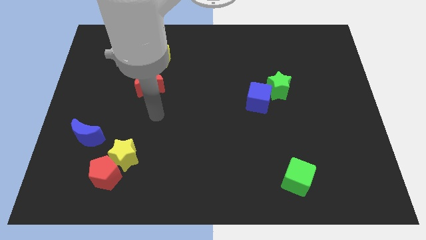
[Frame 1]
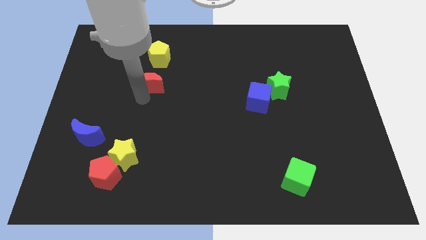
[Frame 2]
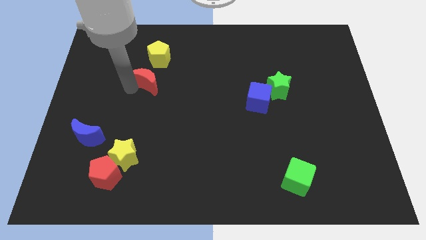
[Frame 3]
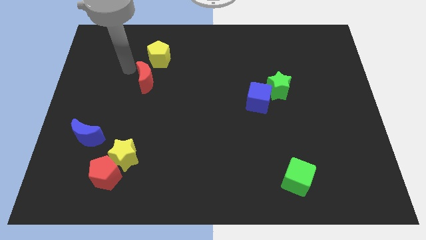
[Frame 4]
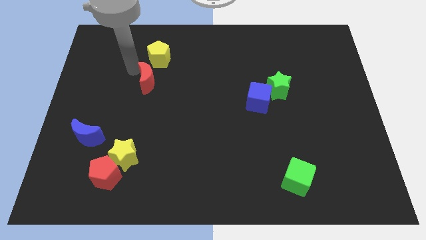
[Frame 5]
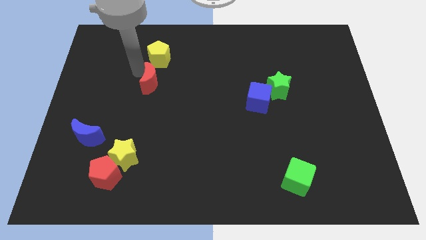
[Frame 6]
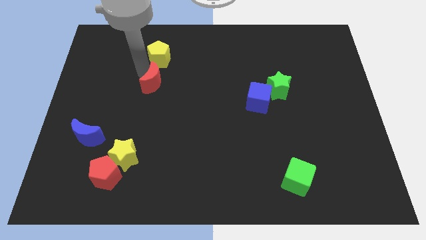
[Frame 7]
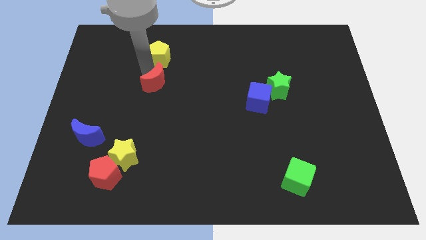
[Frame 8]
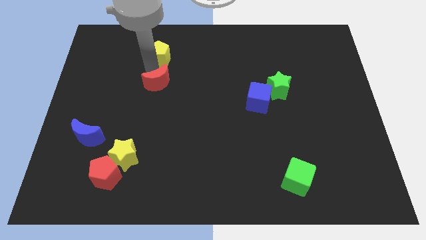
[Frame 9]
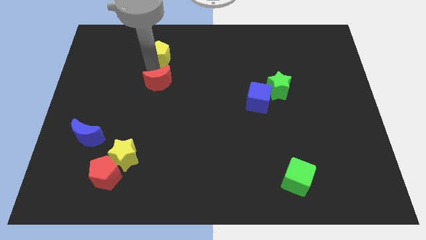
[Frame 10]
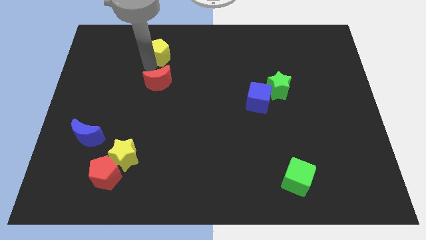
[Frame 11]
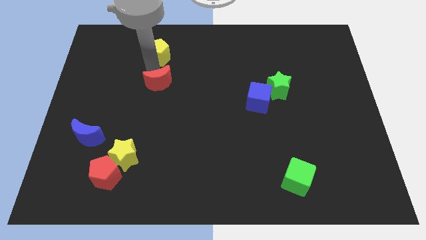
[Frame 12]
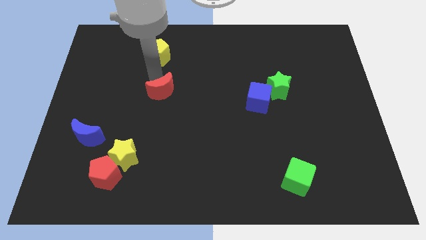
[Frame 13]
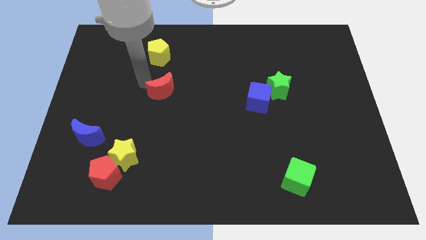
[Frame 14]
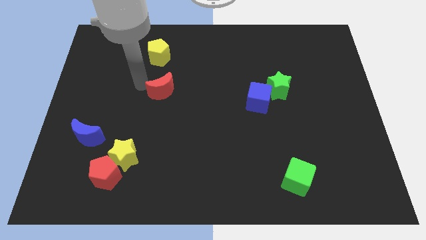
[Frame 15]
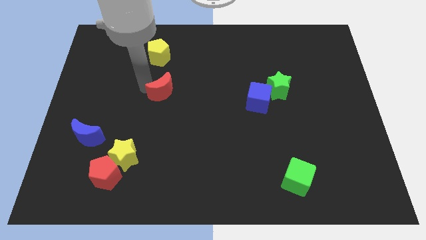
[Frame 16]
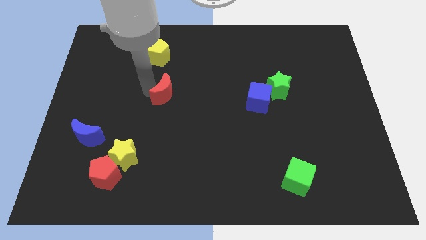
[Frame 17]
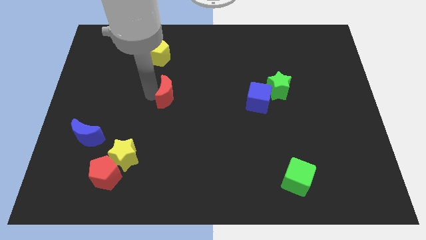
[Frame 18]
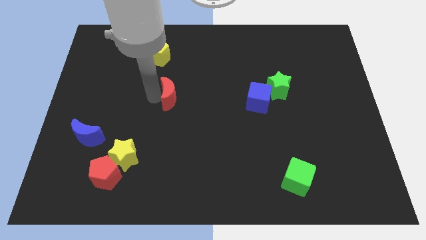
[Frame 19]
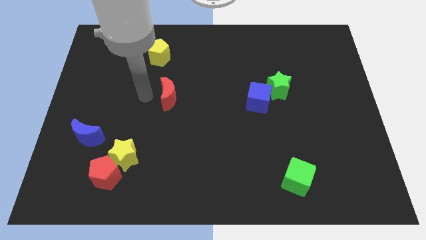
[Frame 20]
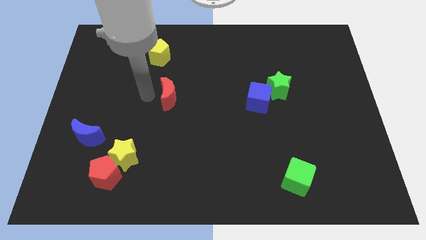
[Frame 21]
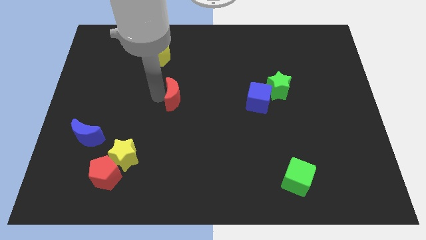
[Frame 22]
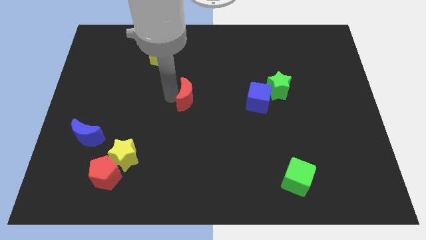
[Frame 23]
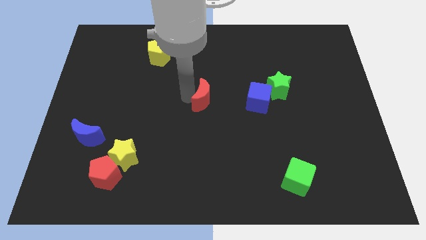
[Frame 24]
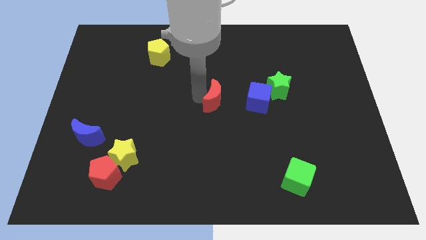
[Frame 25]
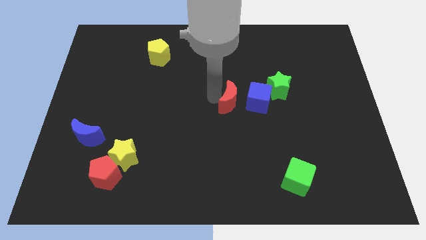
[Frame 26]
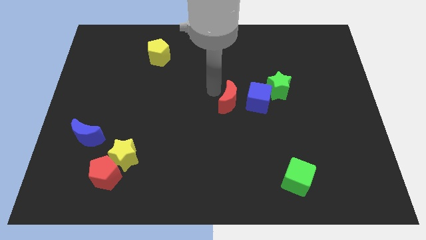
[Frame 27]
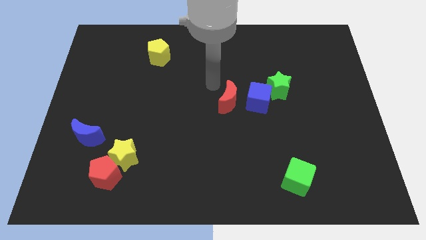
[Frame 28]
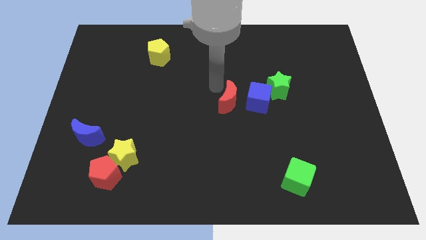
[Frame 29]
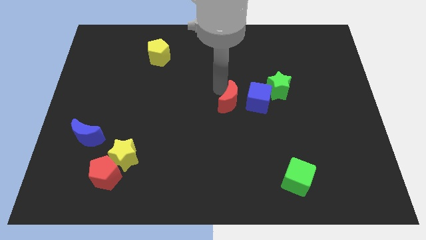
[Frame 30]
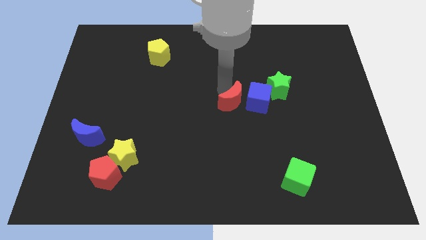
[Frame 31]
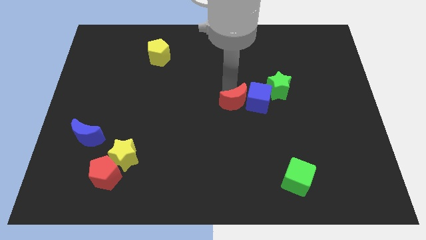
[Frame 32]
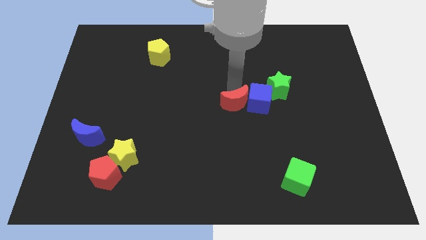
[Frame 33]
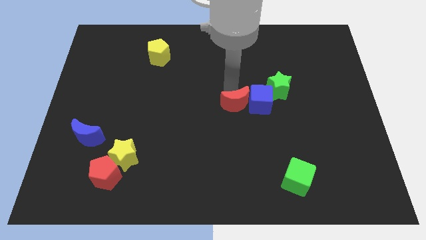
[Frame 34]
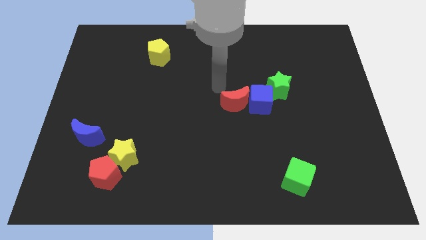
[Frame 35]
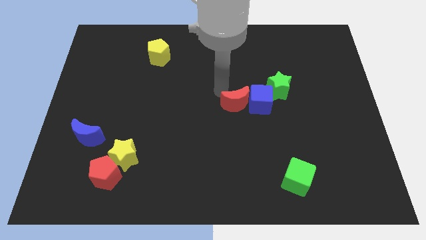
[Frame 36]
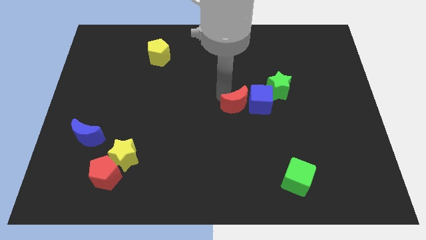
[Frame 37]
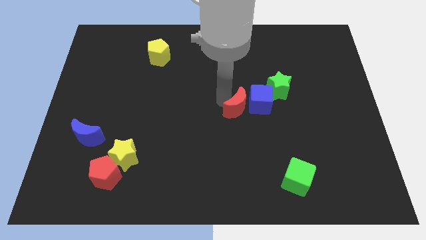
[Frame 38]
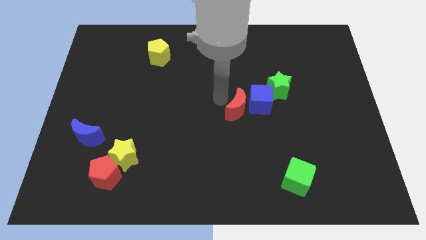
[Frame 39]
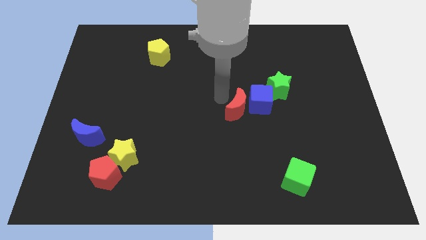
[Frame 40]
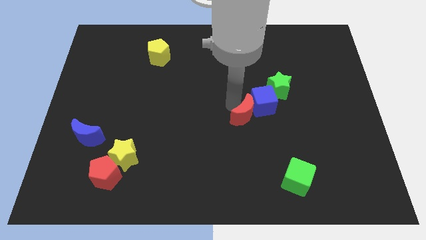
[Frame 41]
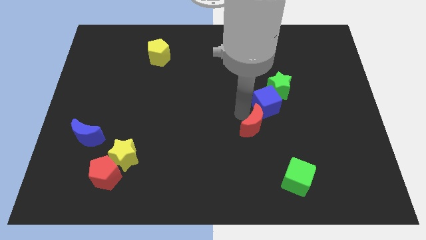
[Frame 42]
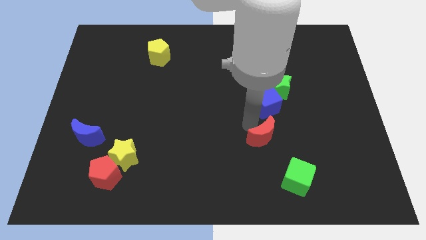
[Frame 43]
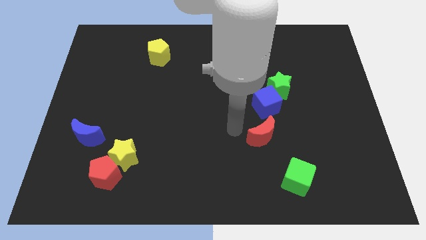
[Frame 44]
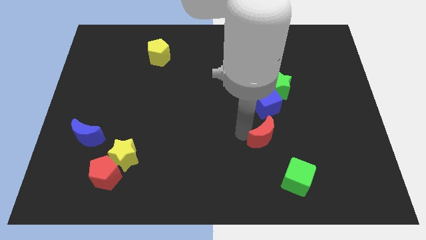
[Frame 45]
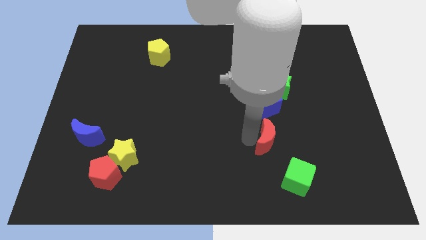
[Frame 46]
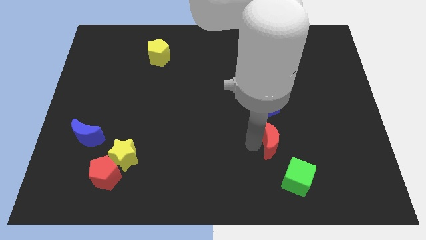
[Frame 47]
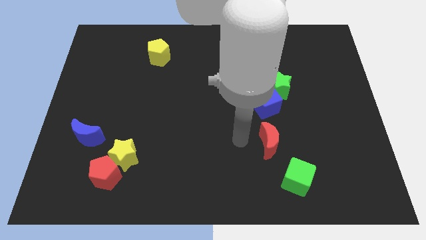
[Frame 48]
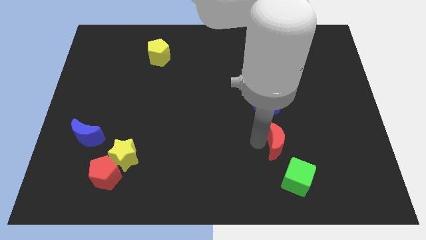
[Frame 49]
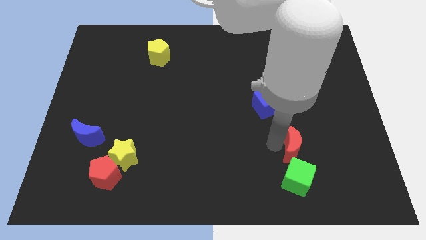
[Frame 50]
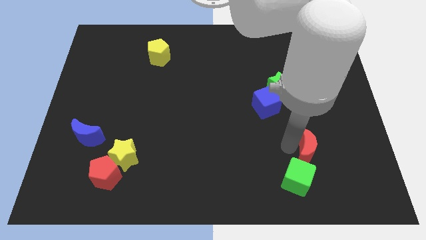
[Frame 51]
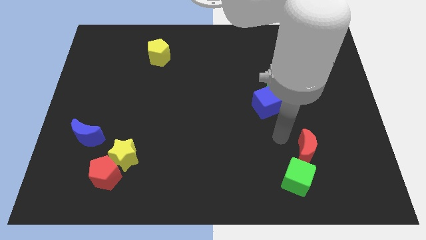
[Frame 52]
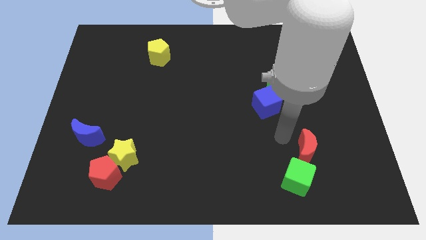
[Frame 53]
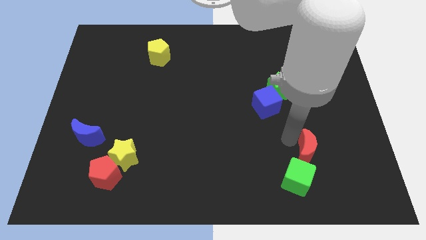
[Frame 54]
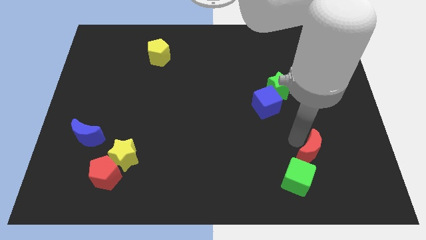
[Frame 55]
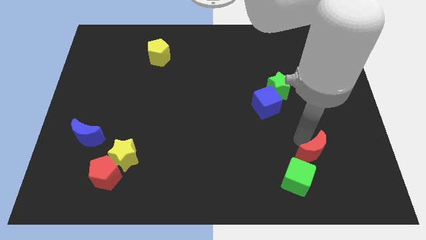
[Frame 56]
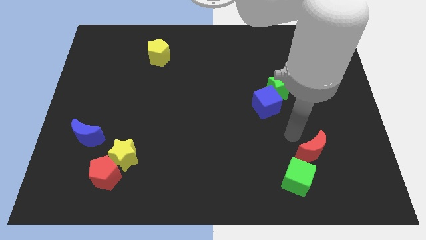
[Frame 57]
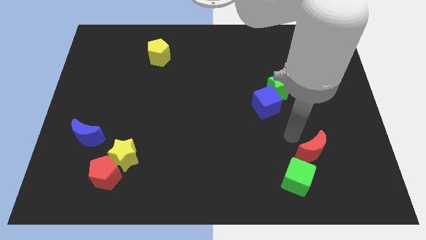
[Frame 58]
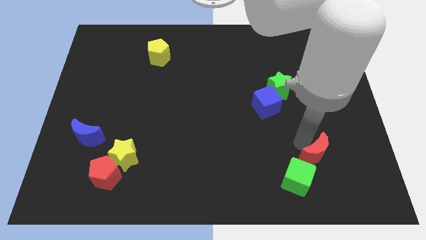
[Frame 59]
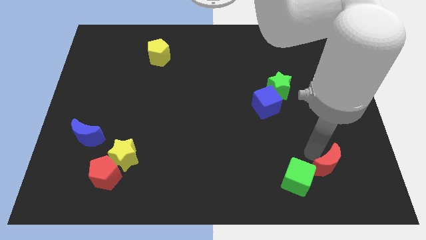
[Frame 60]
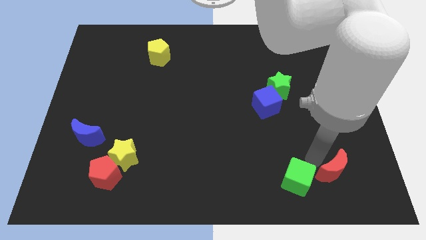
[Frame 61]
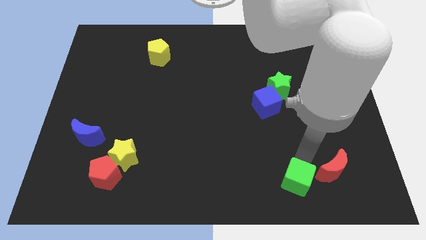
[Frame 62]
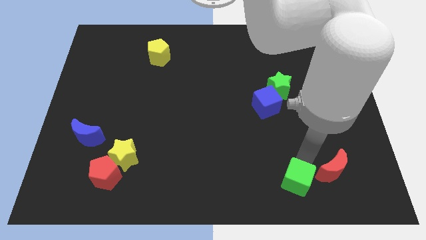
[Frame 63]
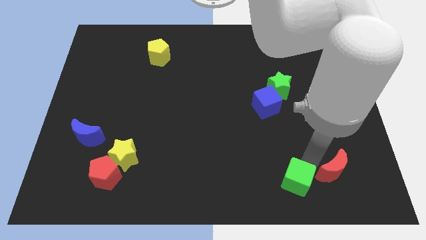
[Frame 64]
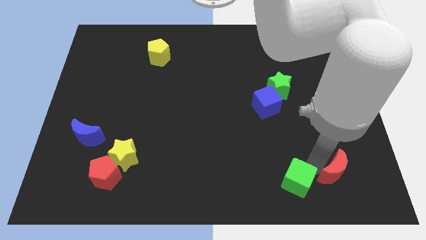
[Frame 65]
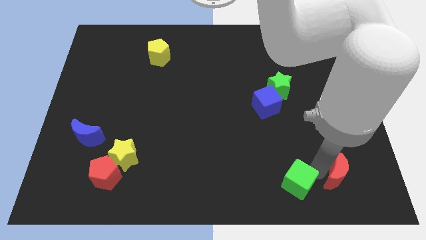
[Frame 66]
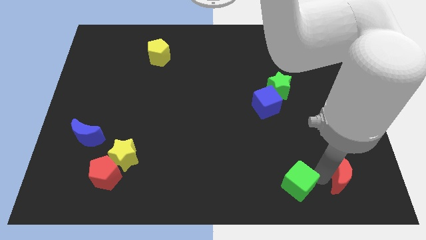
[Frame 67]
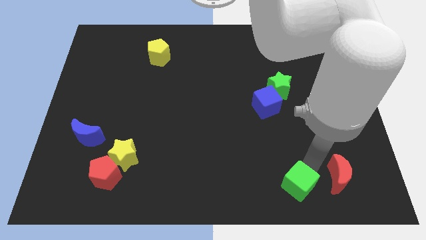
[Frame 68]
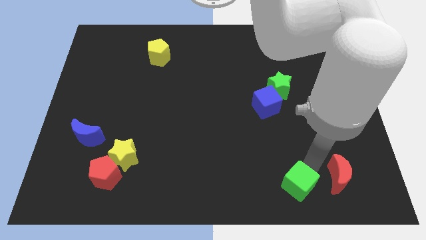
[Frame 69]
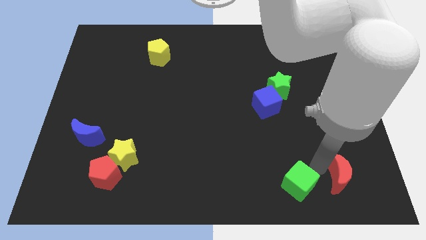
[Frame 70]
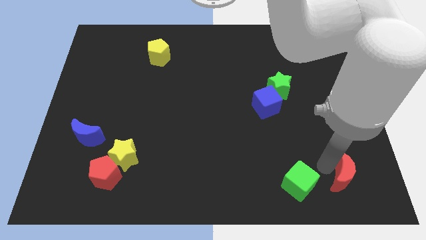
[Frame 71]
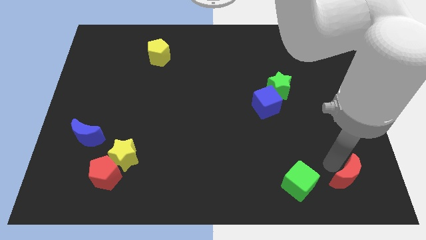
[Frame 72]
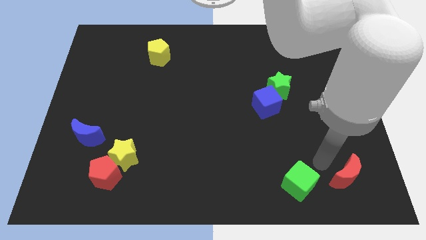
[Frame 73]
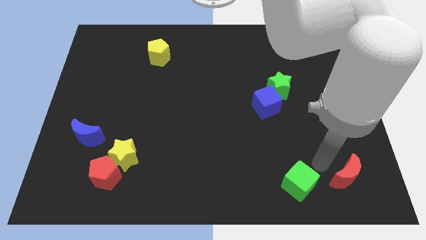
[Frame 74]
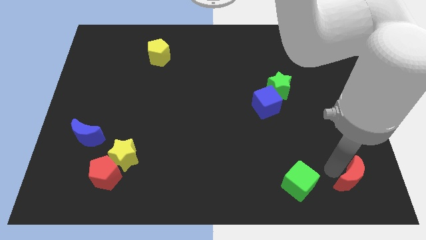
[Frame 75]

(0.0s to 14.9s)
move the red moon to the bottom right of the board
